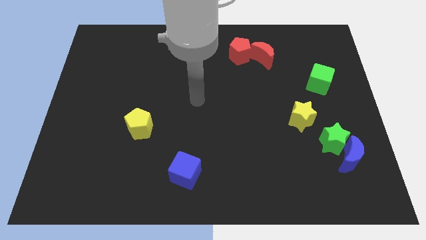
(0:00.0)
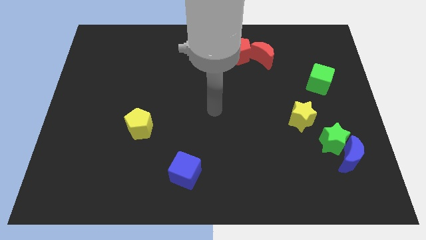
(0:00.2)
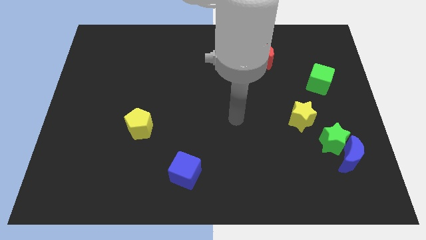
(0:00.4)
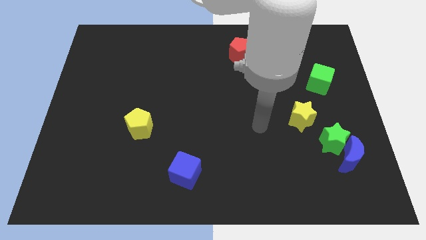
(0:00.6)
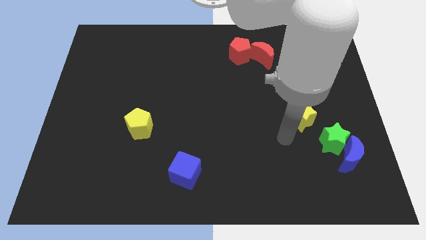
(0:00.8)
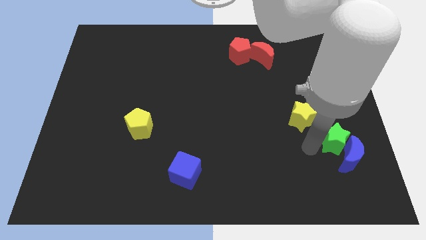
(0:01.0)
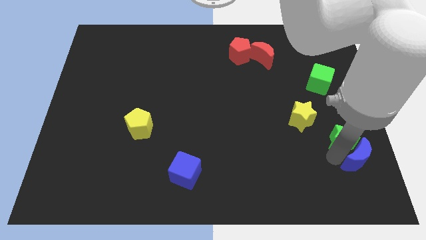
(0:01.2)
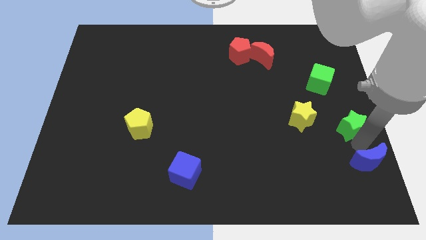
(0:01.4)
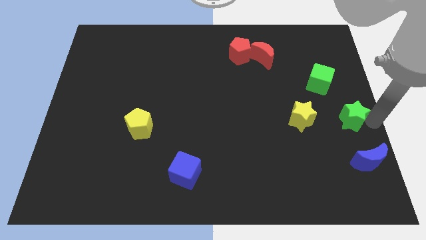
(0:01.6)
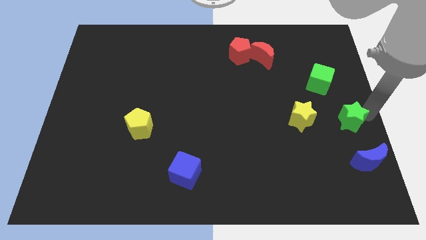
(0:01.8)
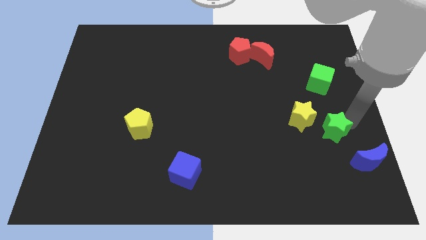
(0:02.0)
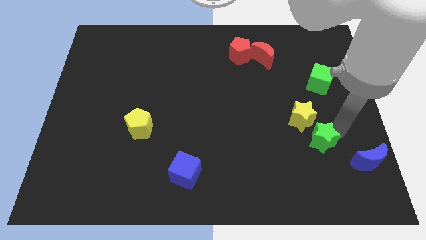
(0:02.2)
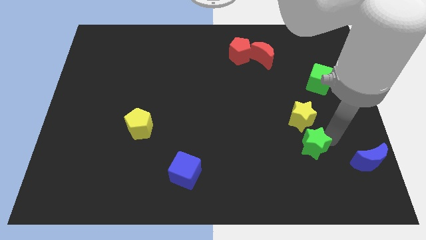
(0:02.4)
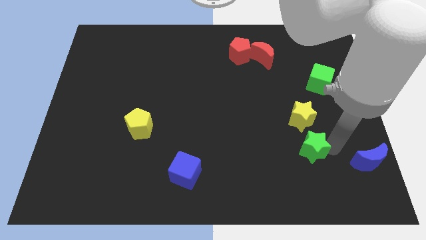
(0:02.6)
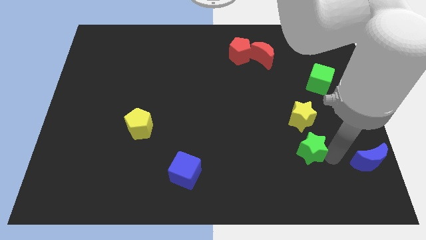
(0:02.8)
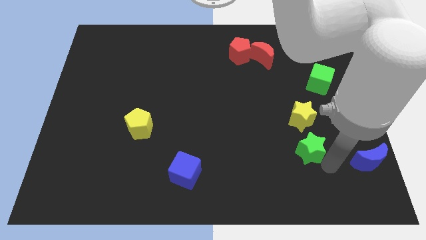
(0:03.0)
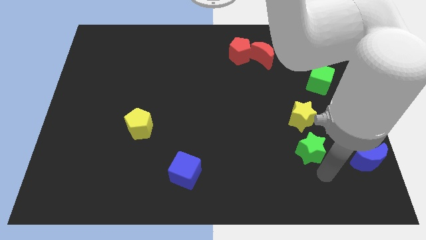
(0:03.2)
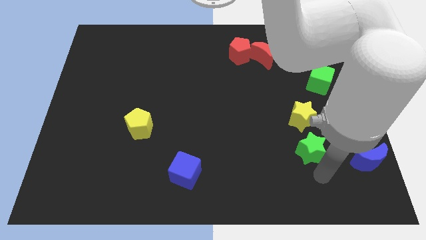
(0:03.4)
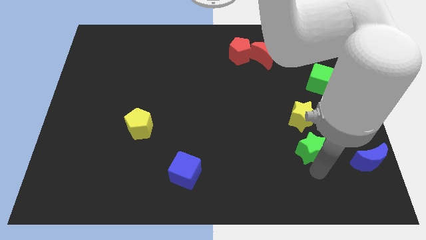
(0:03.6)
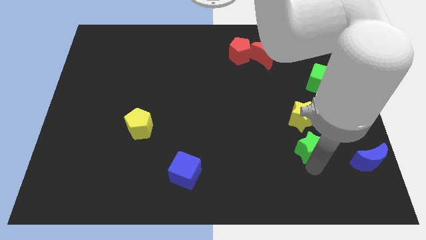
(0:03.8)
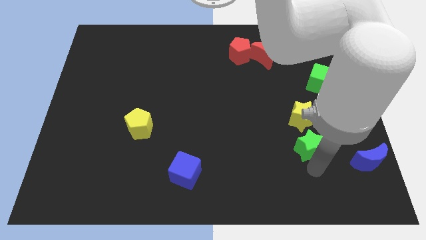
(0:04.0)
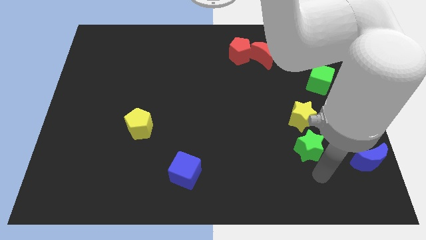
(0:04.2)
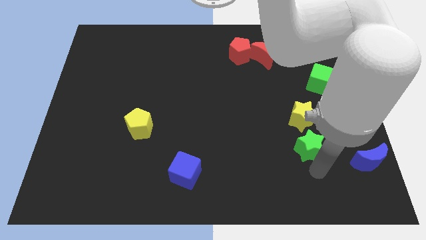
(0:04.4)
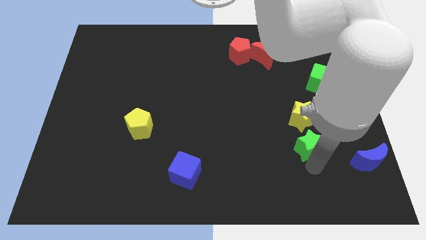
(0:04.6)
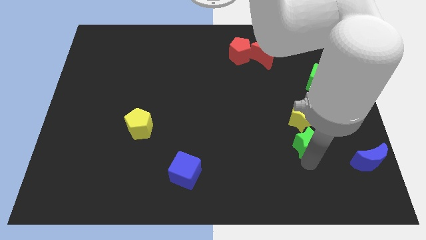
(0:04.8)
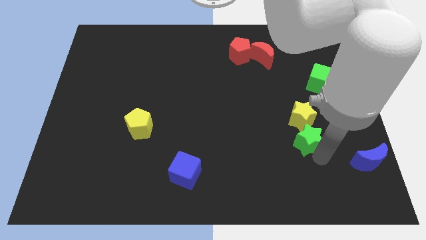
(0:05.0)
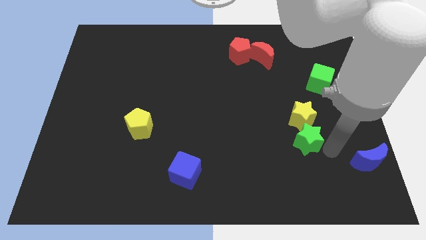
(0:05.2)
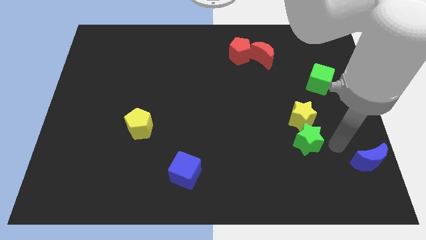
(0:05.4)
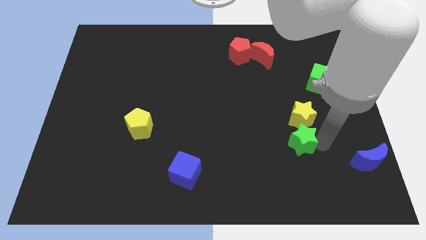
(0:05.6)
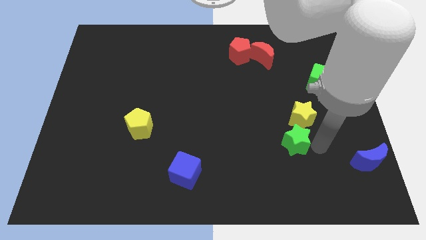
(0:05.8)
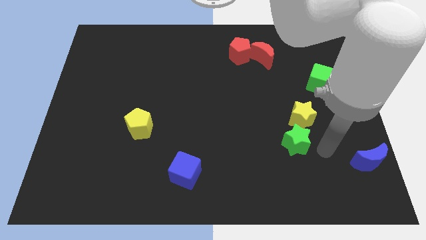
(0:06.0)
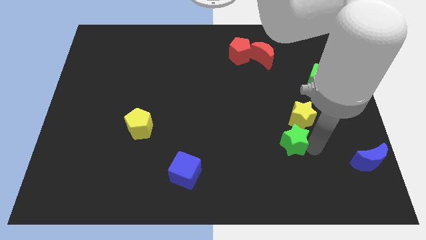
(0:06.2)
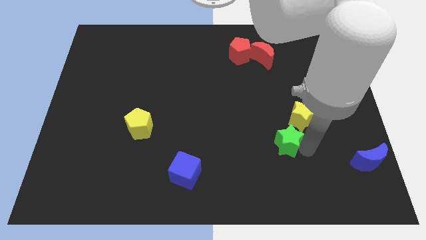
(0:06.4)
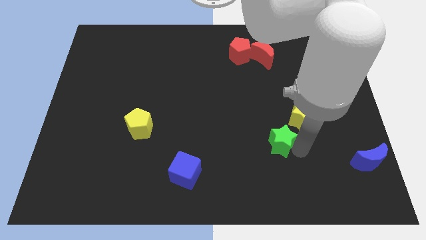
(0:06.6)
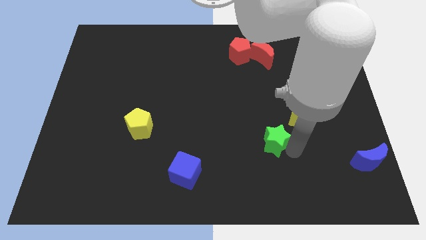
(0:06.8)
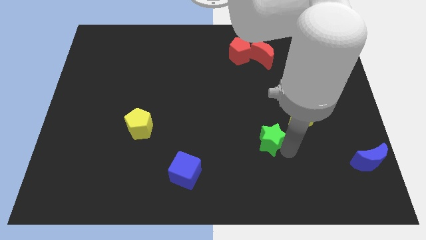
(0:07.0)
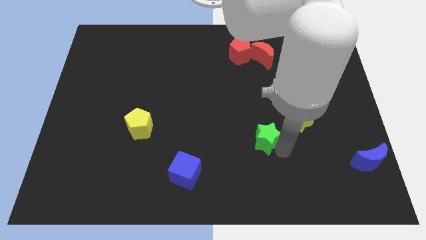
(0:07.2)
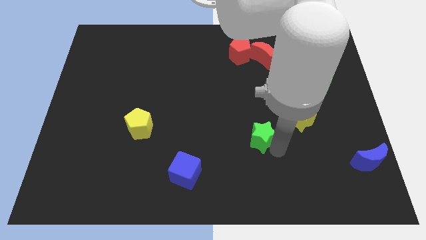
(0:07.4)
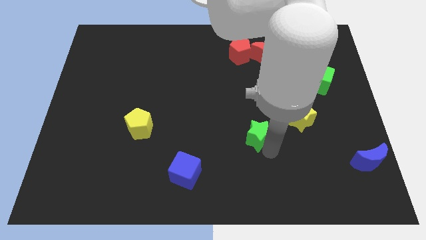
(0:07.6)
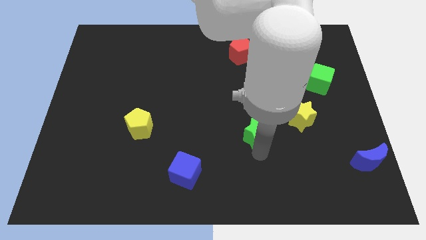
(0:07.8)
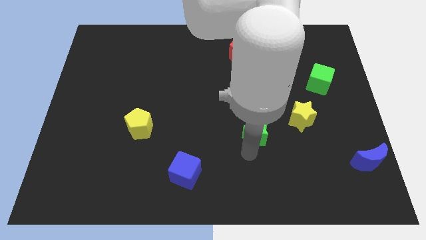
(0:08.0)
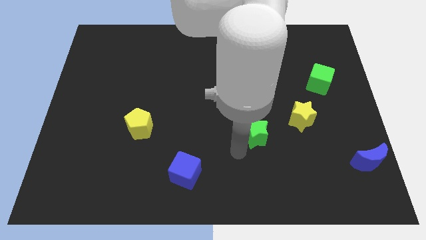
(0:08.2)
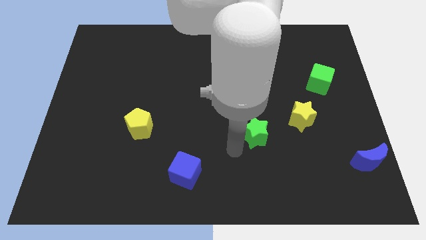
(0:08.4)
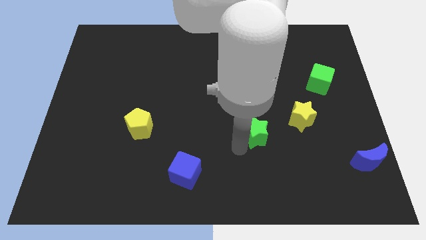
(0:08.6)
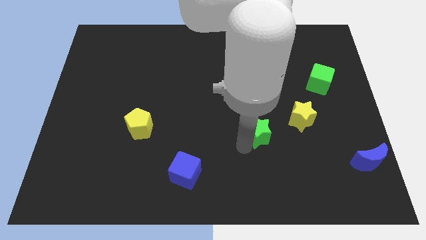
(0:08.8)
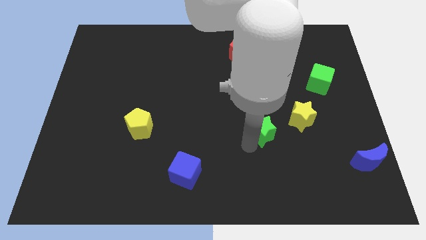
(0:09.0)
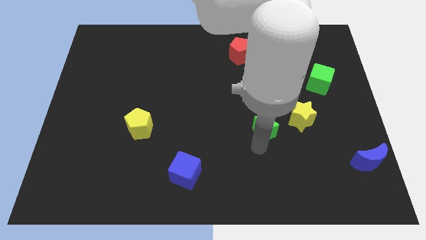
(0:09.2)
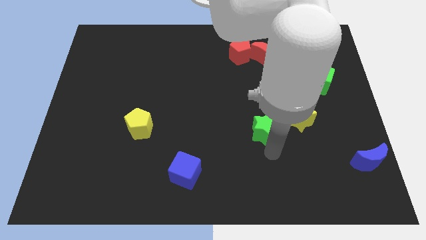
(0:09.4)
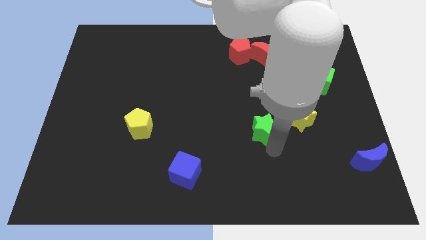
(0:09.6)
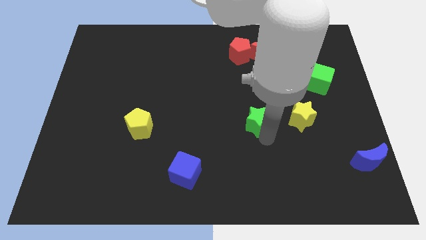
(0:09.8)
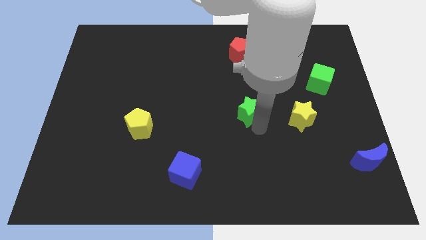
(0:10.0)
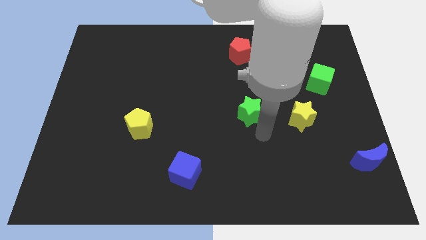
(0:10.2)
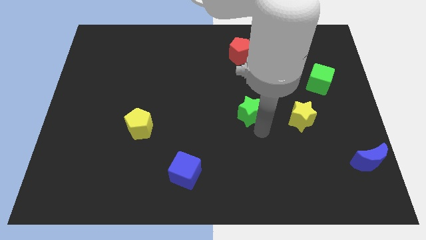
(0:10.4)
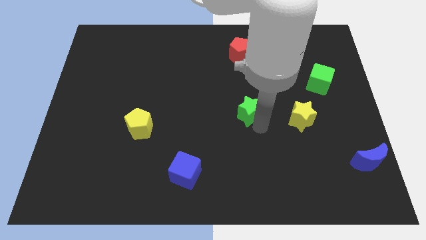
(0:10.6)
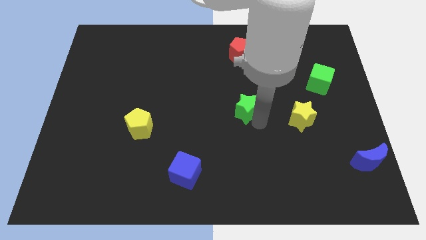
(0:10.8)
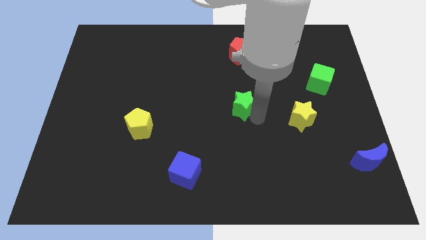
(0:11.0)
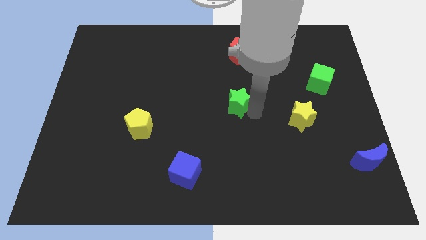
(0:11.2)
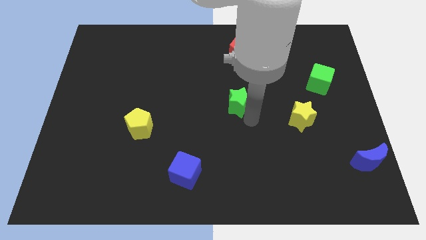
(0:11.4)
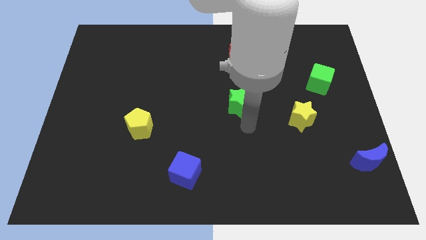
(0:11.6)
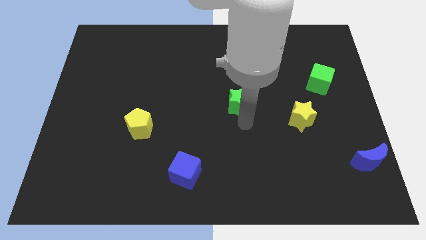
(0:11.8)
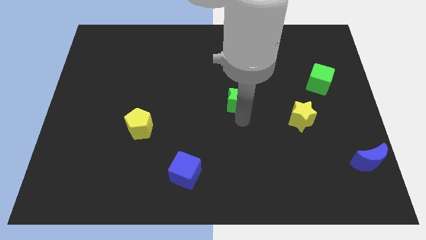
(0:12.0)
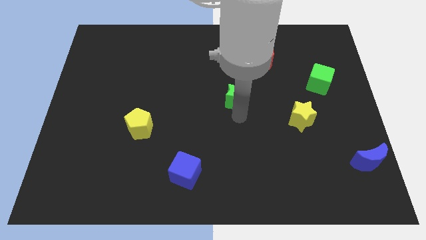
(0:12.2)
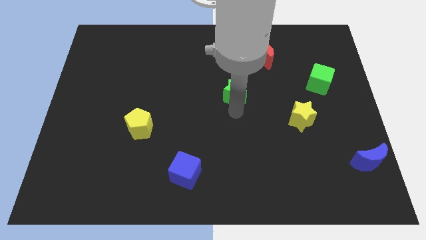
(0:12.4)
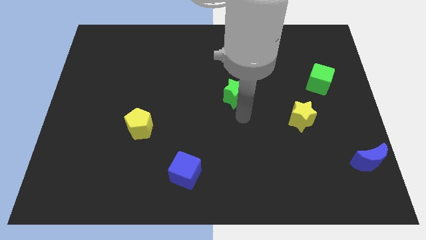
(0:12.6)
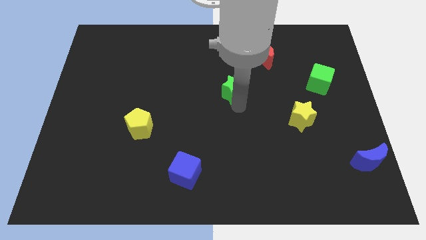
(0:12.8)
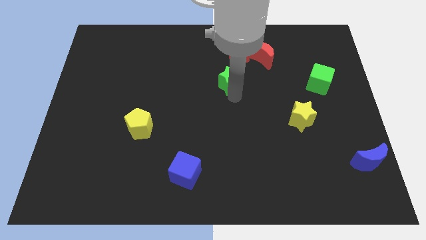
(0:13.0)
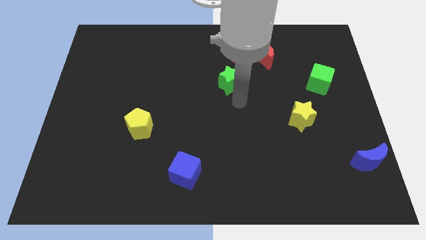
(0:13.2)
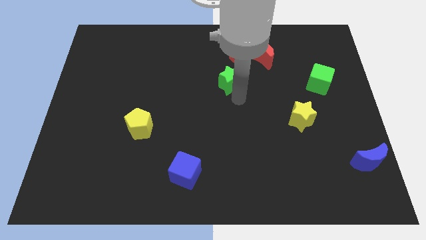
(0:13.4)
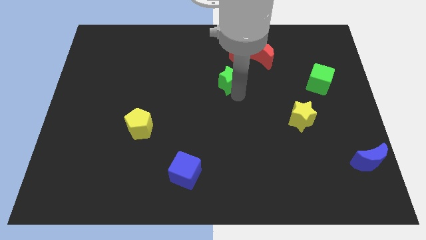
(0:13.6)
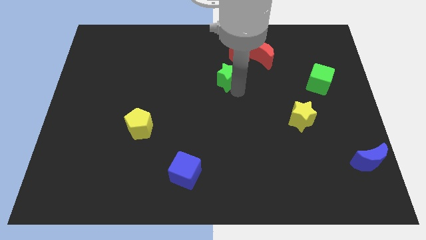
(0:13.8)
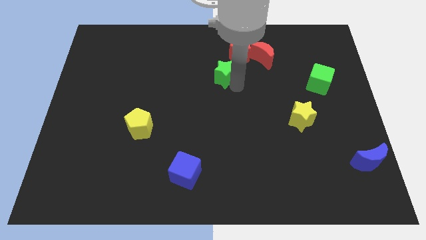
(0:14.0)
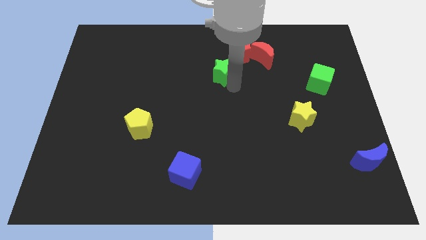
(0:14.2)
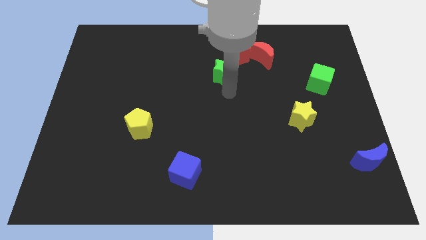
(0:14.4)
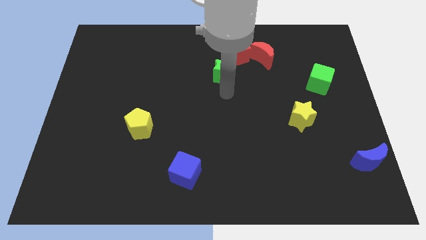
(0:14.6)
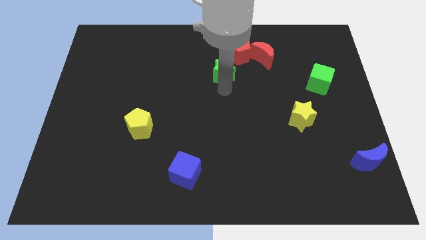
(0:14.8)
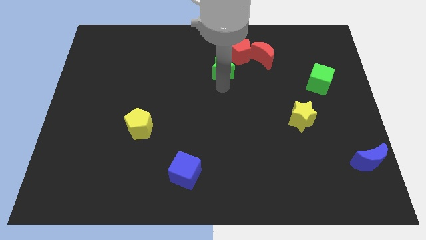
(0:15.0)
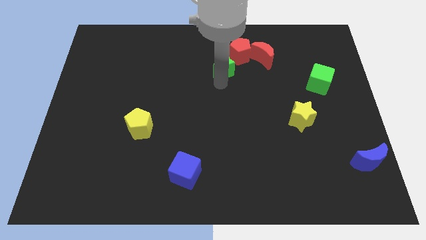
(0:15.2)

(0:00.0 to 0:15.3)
push the green star to the left side of the red moon
